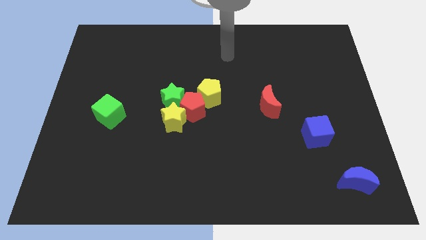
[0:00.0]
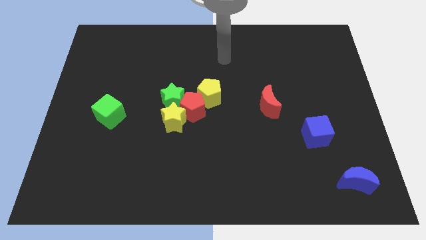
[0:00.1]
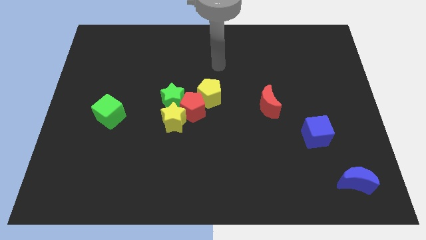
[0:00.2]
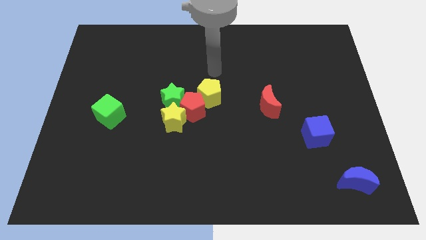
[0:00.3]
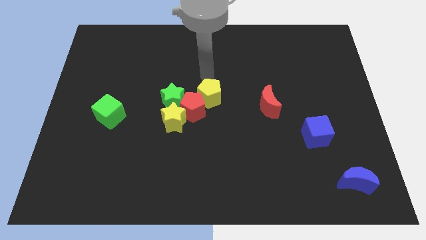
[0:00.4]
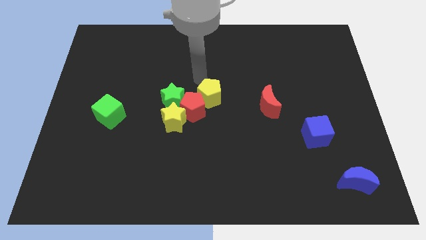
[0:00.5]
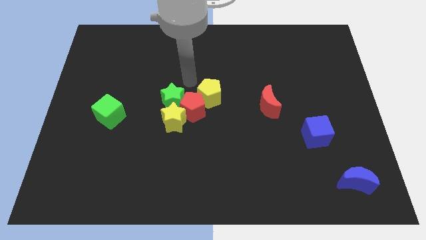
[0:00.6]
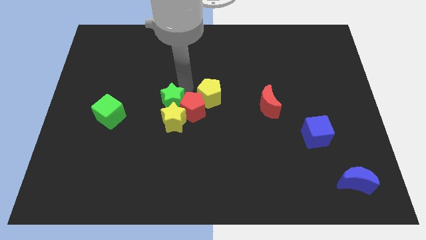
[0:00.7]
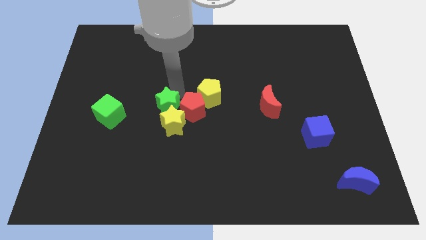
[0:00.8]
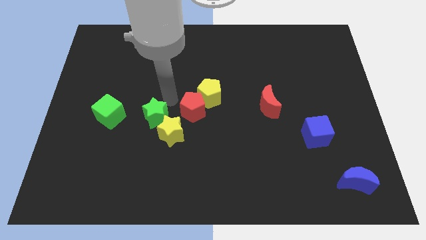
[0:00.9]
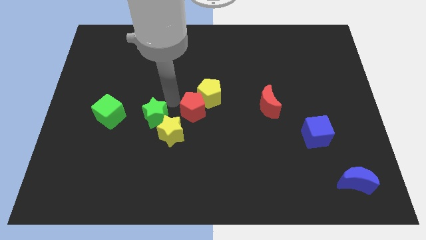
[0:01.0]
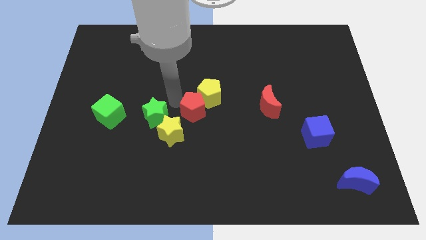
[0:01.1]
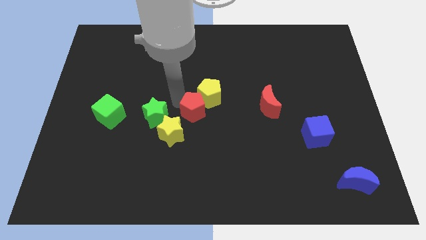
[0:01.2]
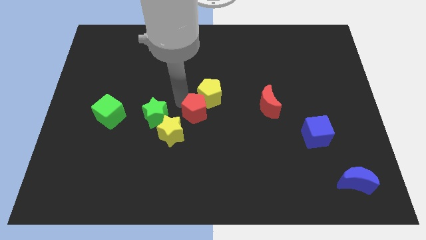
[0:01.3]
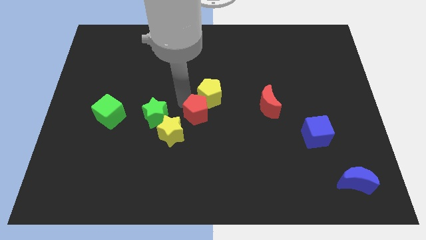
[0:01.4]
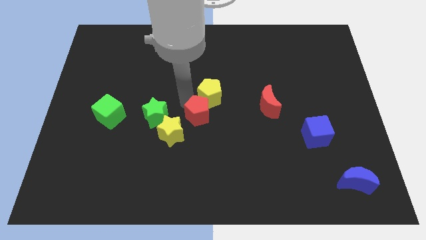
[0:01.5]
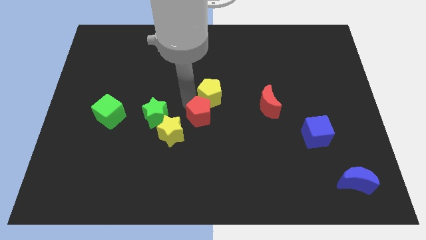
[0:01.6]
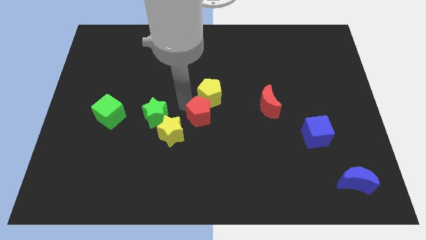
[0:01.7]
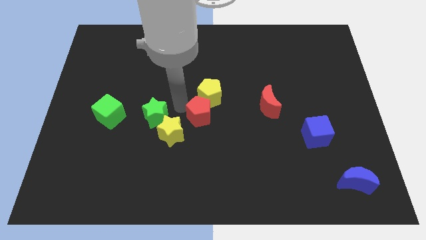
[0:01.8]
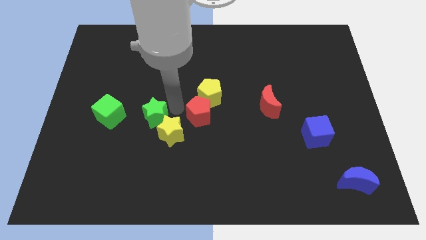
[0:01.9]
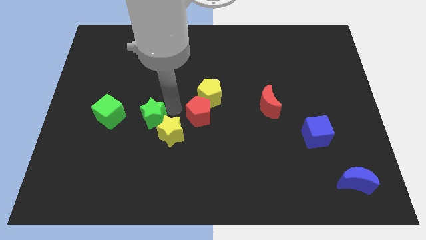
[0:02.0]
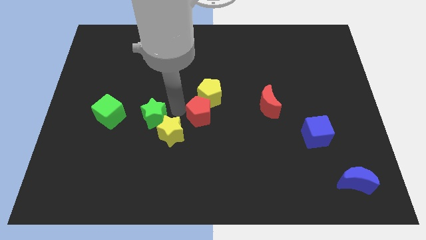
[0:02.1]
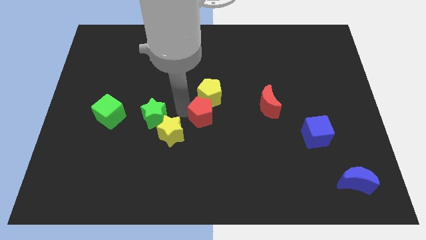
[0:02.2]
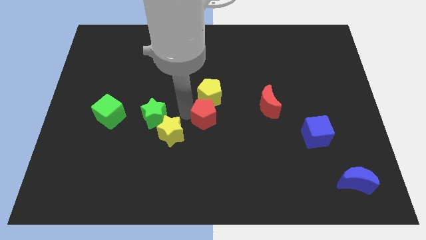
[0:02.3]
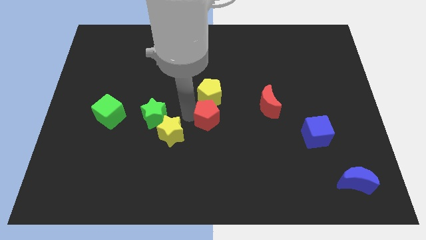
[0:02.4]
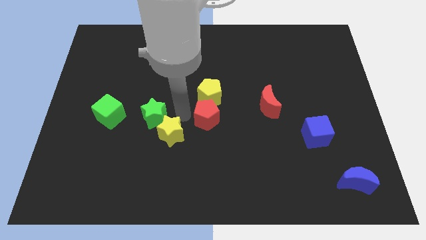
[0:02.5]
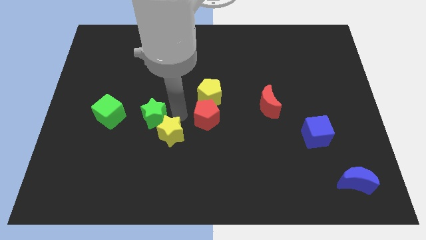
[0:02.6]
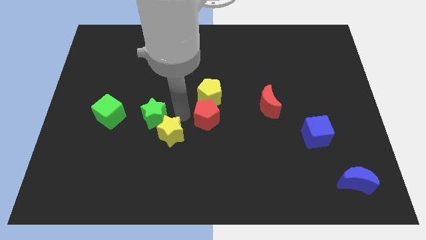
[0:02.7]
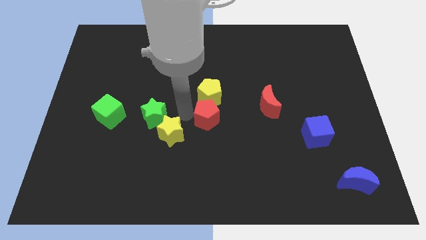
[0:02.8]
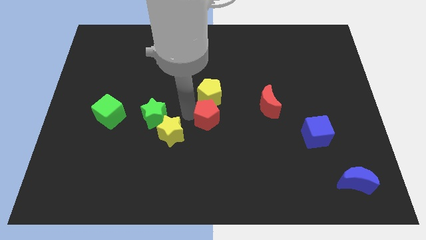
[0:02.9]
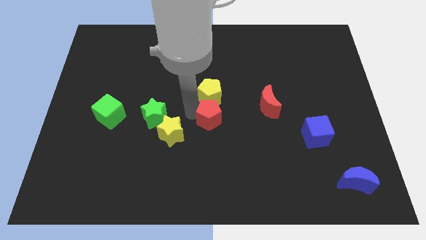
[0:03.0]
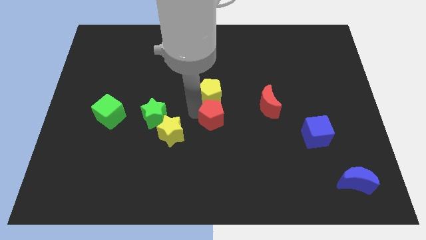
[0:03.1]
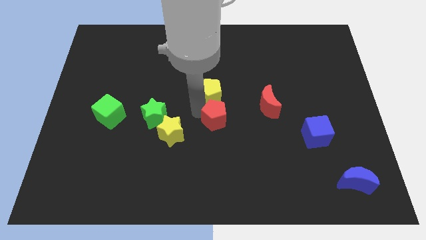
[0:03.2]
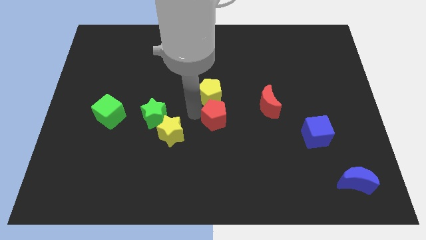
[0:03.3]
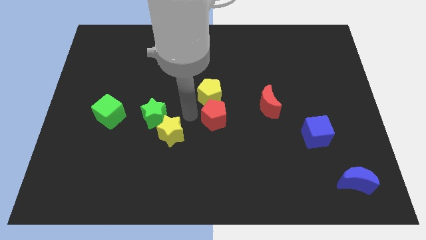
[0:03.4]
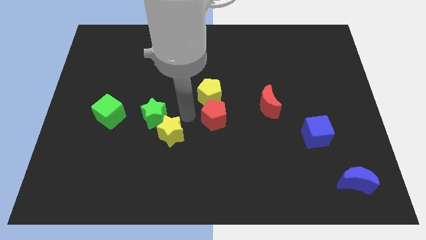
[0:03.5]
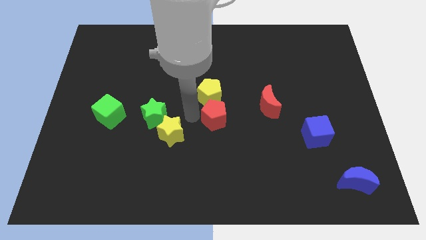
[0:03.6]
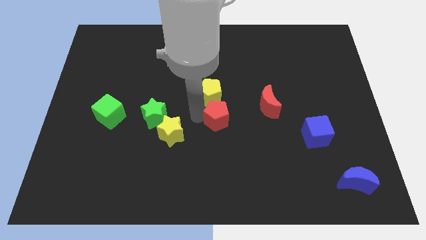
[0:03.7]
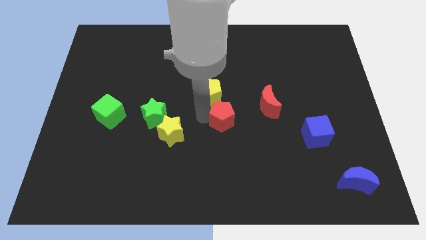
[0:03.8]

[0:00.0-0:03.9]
separate the red pentagon from the group

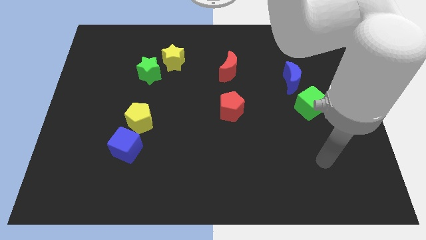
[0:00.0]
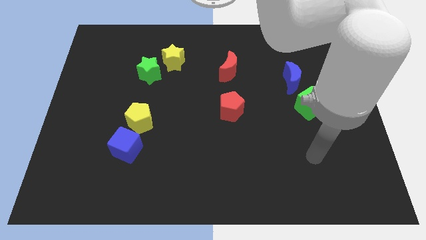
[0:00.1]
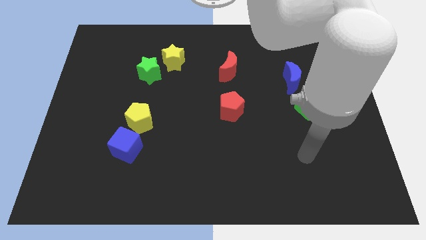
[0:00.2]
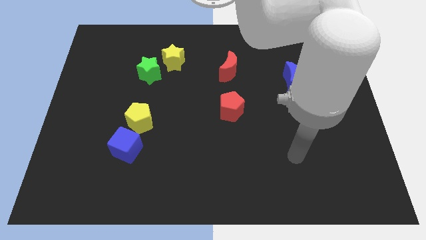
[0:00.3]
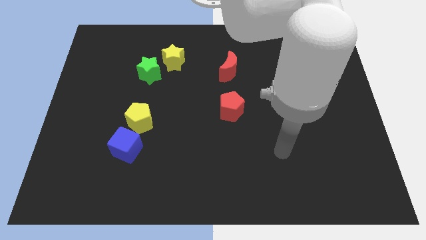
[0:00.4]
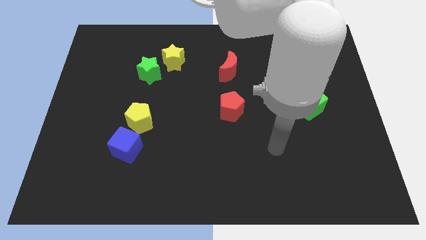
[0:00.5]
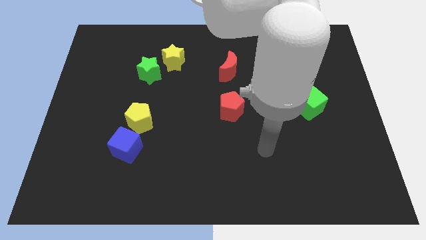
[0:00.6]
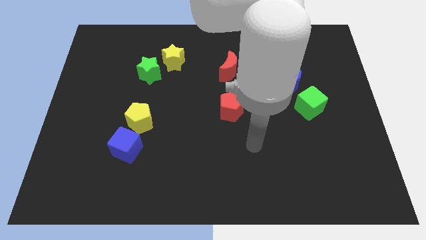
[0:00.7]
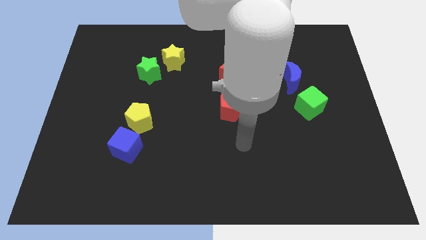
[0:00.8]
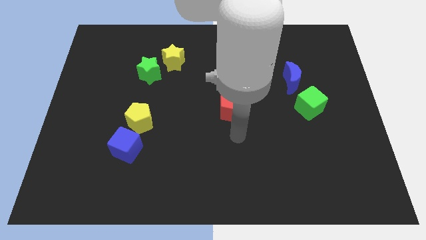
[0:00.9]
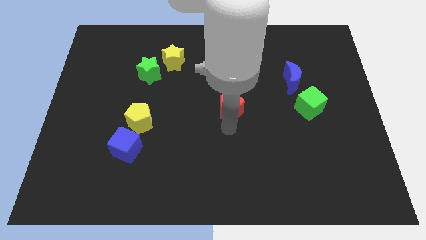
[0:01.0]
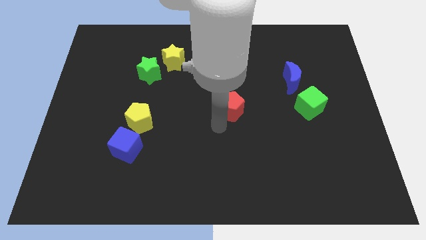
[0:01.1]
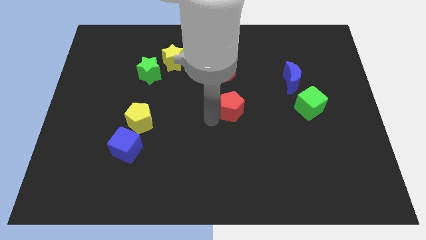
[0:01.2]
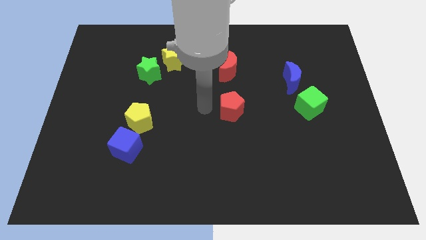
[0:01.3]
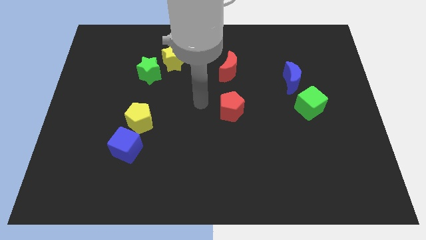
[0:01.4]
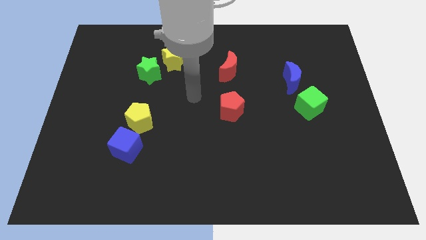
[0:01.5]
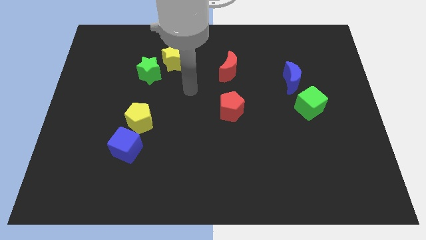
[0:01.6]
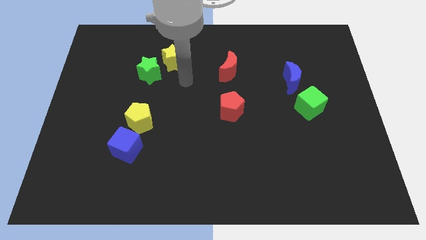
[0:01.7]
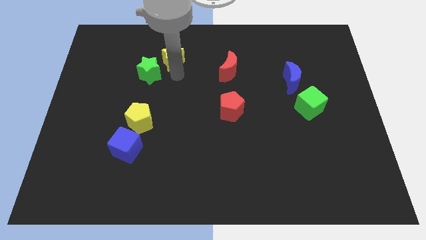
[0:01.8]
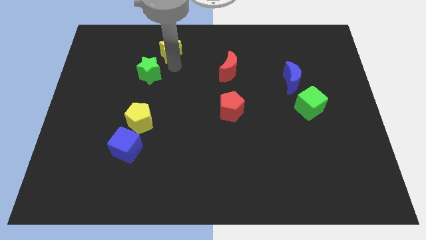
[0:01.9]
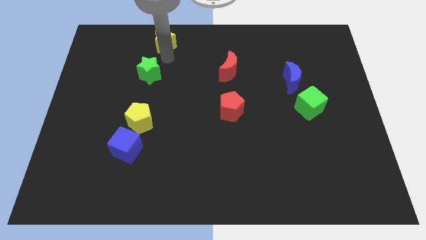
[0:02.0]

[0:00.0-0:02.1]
separate the green star from the yellow star

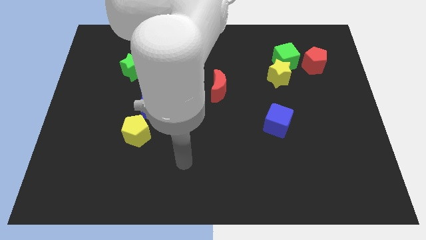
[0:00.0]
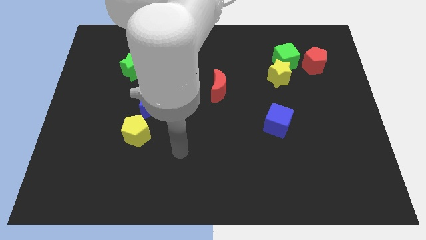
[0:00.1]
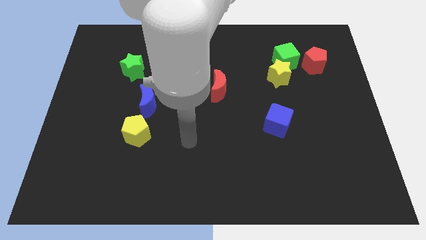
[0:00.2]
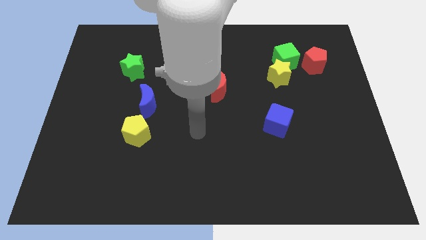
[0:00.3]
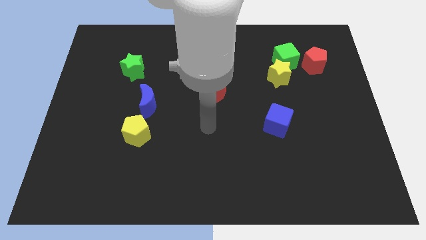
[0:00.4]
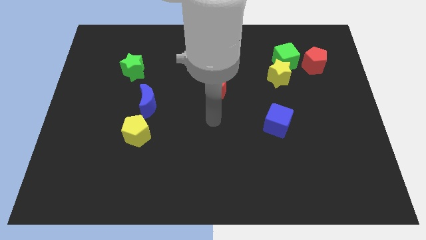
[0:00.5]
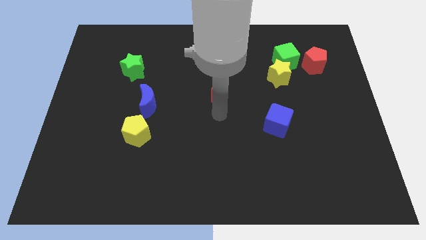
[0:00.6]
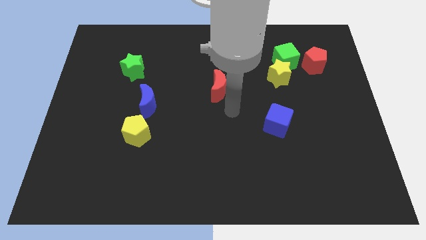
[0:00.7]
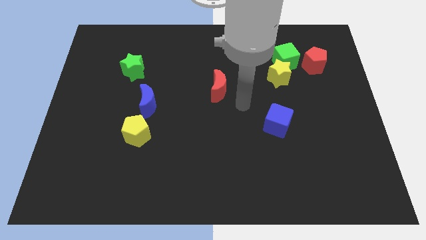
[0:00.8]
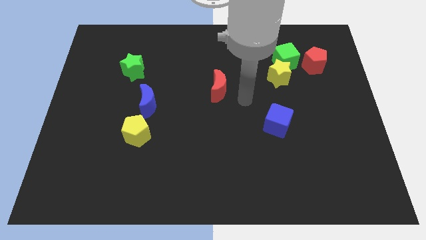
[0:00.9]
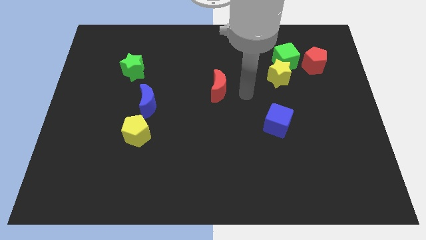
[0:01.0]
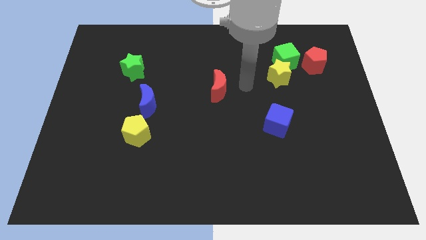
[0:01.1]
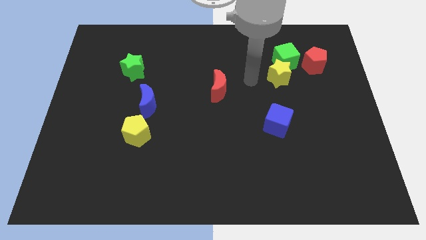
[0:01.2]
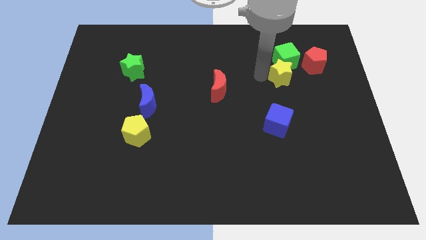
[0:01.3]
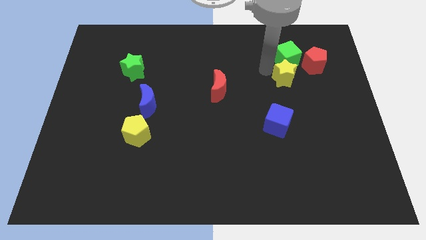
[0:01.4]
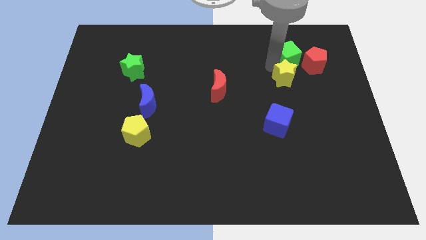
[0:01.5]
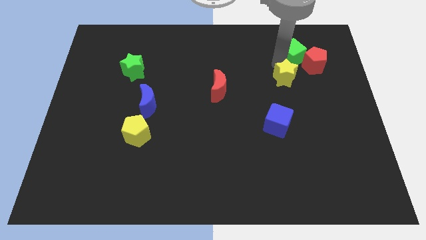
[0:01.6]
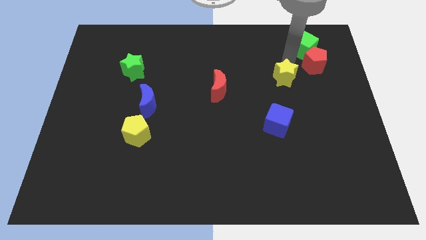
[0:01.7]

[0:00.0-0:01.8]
move the yellow star away from the green cube

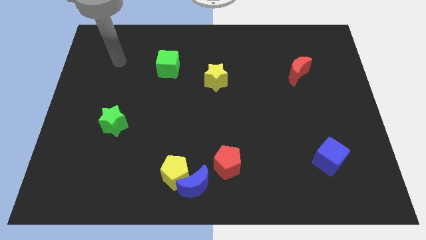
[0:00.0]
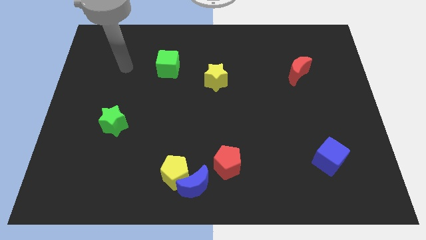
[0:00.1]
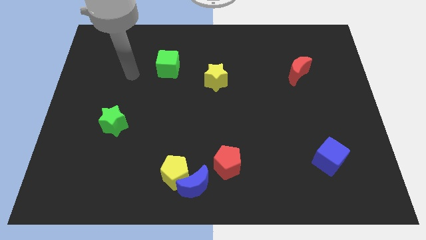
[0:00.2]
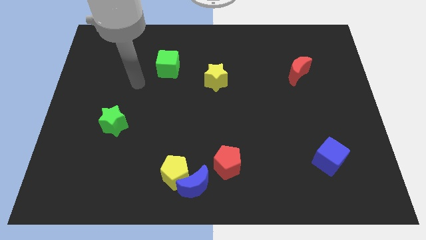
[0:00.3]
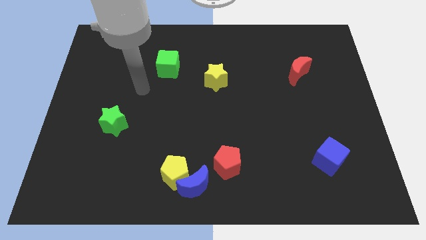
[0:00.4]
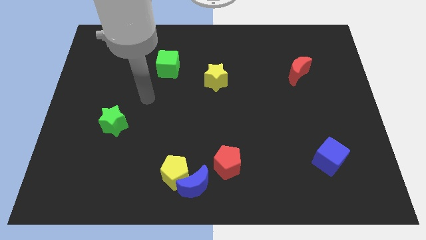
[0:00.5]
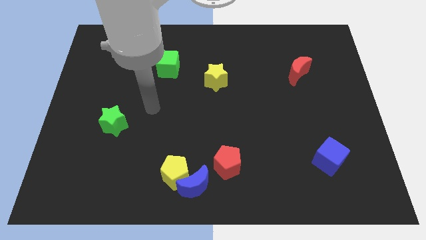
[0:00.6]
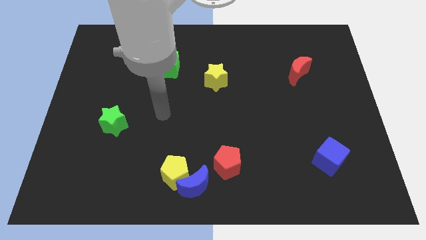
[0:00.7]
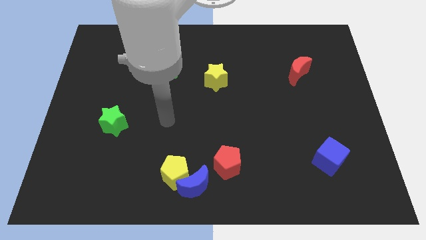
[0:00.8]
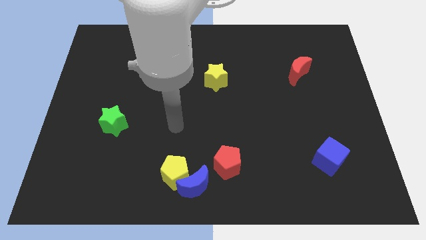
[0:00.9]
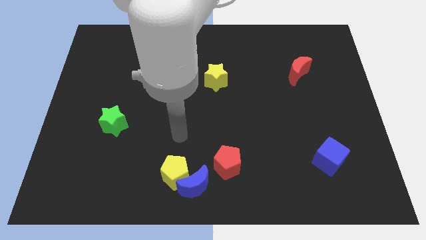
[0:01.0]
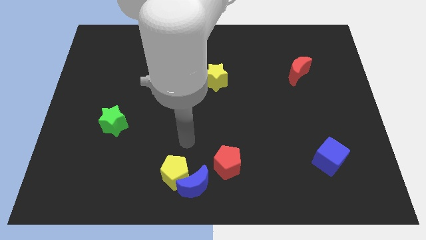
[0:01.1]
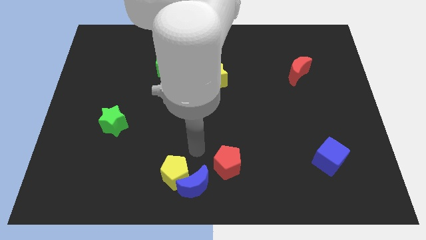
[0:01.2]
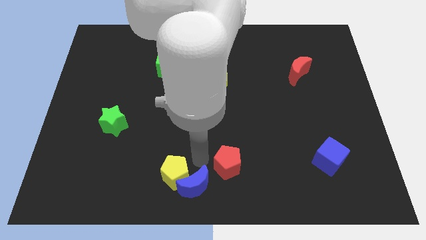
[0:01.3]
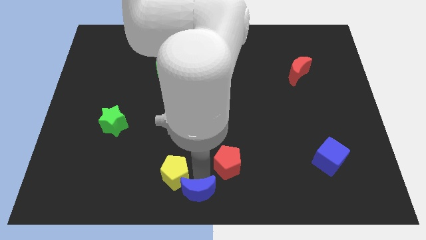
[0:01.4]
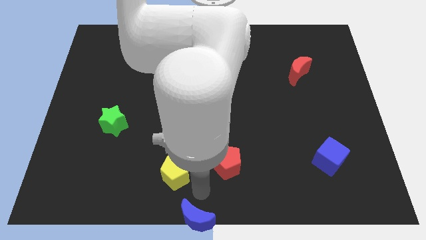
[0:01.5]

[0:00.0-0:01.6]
move the yellow pentagon away from the blue moon
